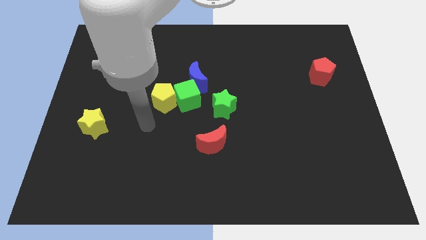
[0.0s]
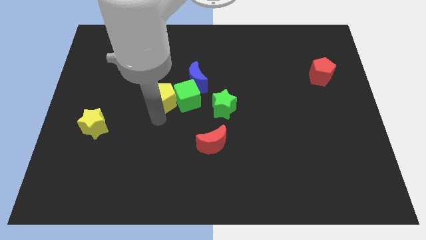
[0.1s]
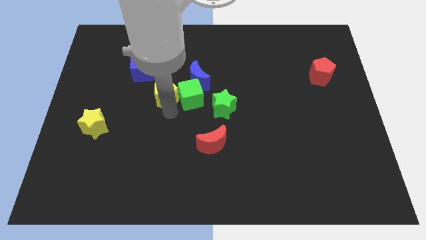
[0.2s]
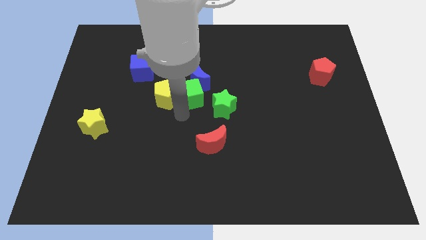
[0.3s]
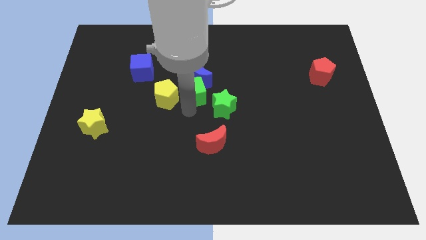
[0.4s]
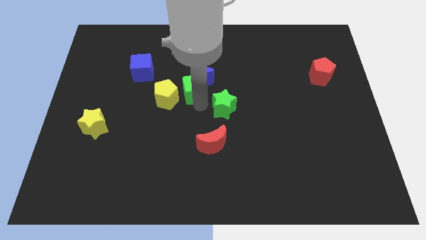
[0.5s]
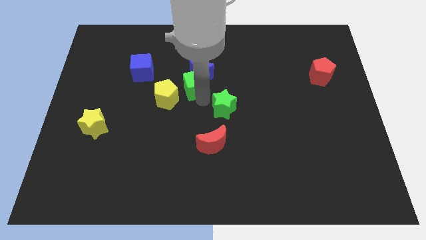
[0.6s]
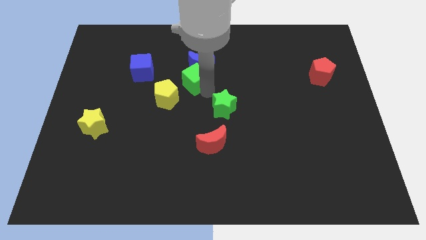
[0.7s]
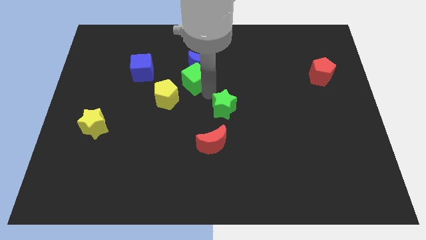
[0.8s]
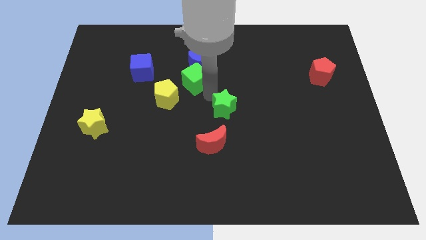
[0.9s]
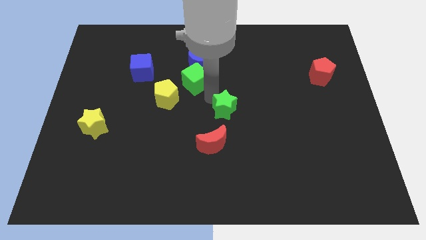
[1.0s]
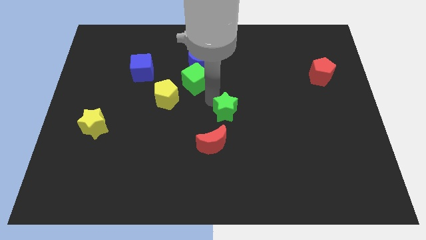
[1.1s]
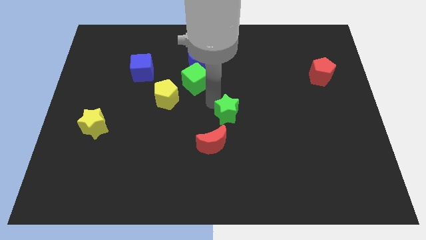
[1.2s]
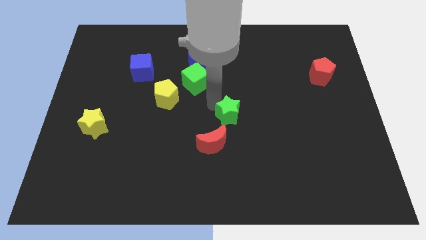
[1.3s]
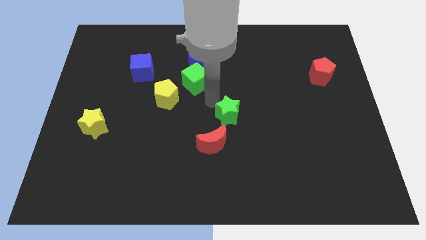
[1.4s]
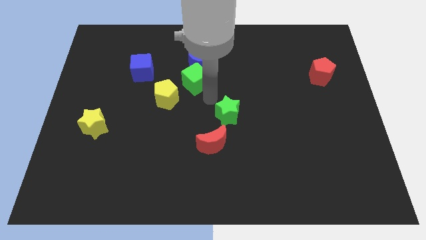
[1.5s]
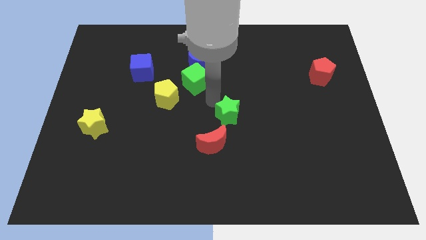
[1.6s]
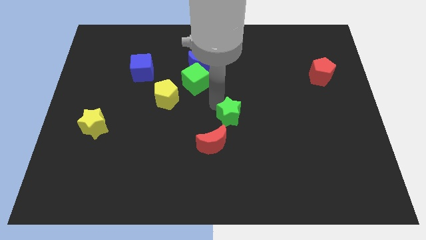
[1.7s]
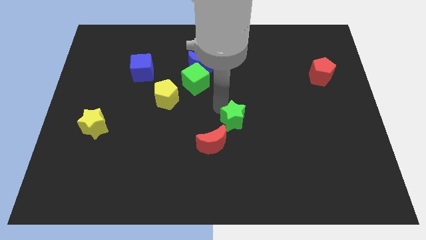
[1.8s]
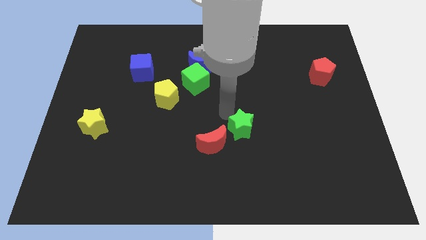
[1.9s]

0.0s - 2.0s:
slide the green star down and to the right slightly

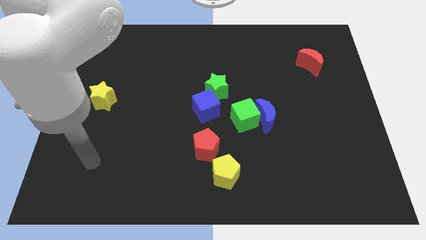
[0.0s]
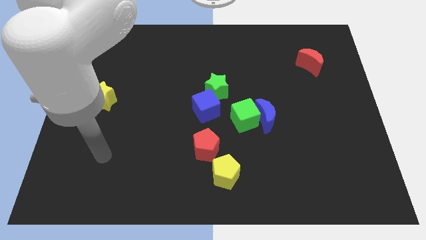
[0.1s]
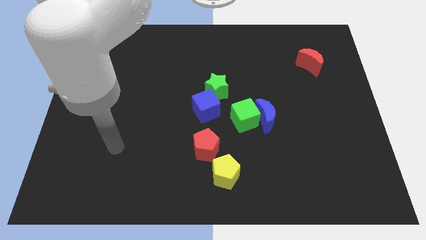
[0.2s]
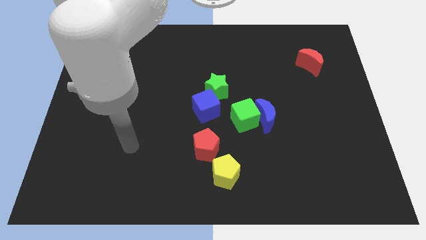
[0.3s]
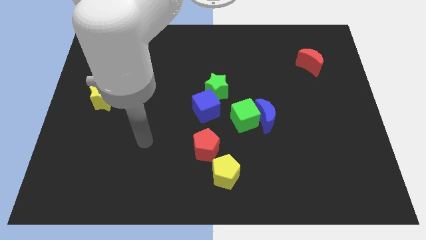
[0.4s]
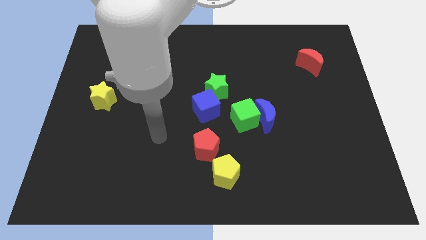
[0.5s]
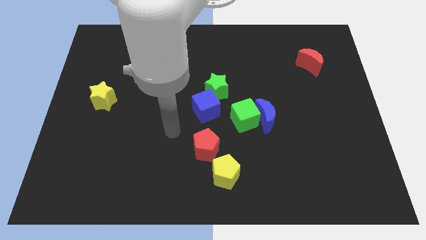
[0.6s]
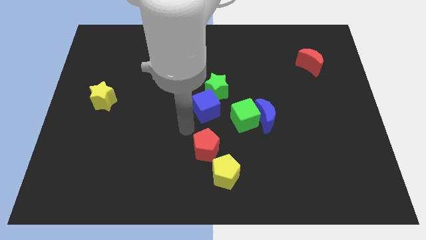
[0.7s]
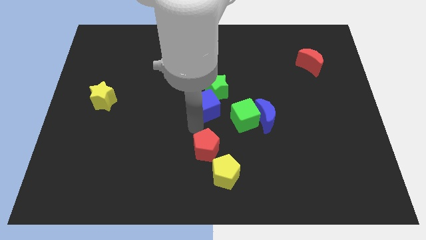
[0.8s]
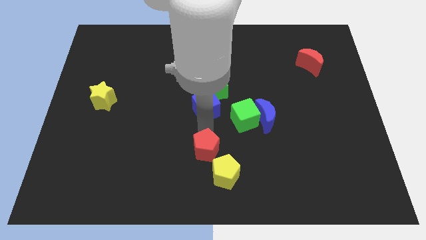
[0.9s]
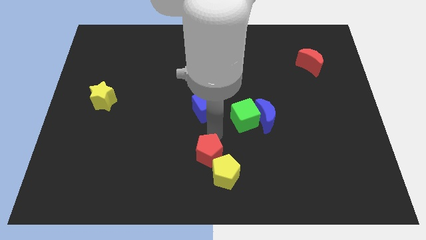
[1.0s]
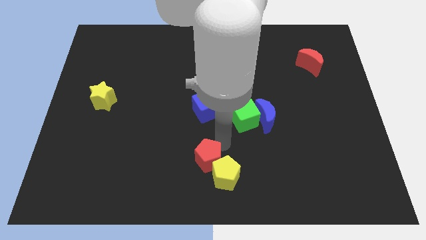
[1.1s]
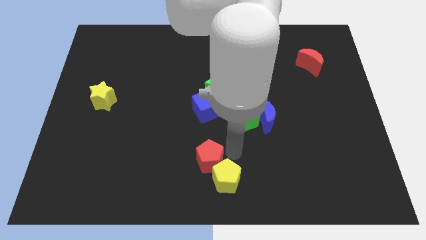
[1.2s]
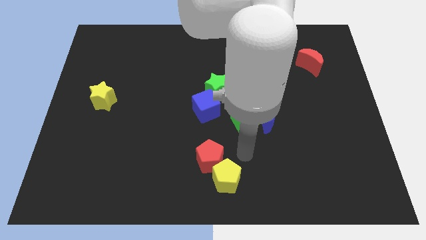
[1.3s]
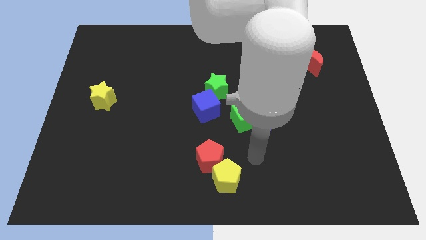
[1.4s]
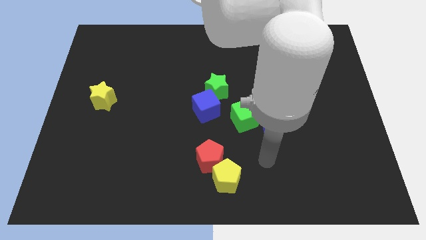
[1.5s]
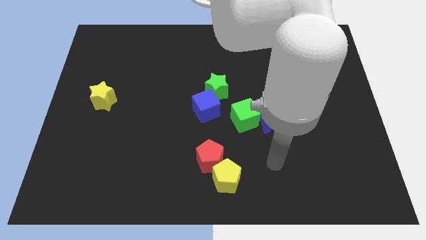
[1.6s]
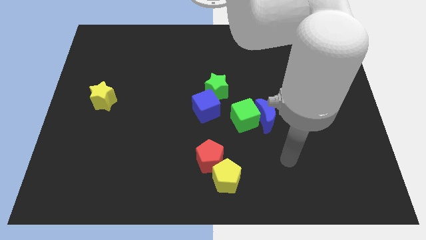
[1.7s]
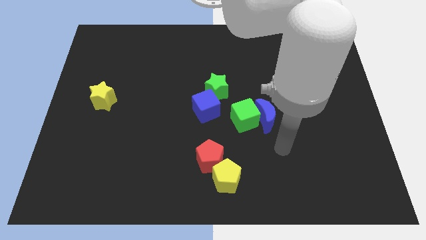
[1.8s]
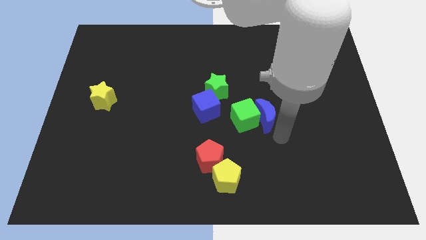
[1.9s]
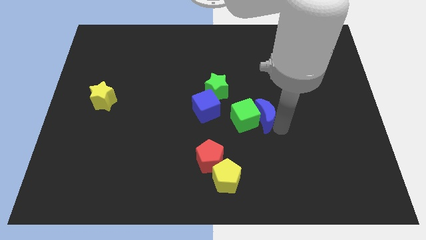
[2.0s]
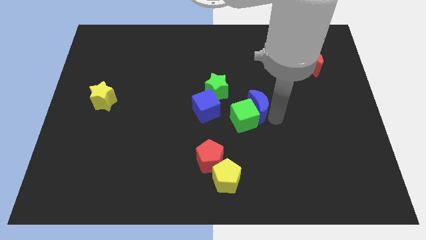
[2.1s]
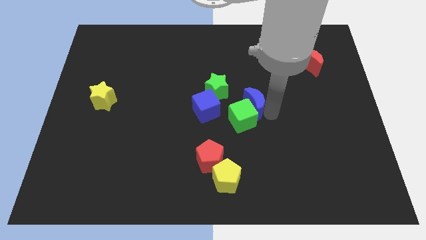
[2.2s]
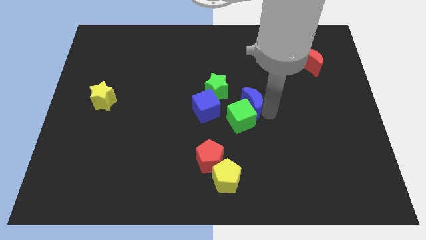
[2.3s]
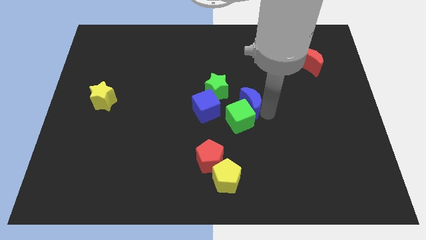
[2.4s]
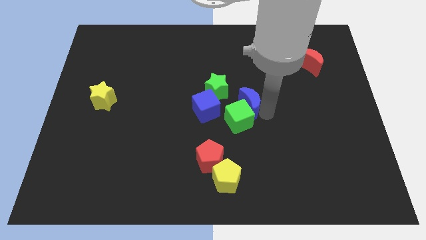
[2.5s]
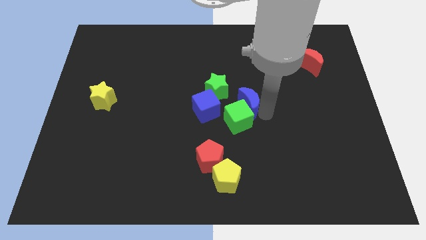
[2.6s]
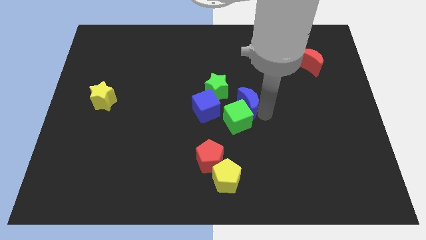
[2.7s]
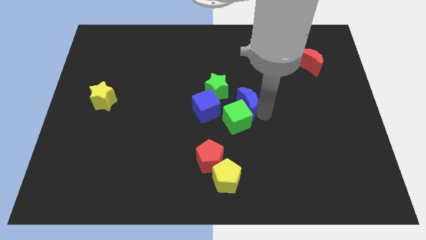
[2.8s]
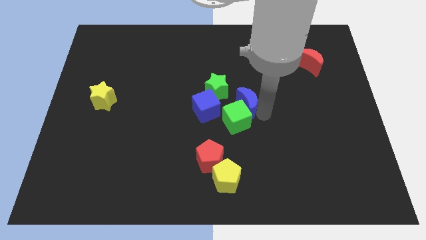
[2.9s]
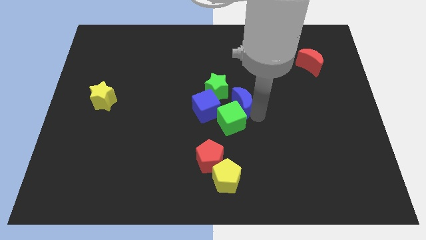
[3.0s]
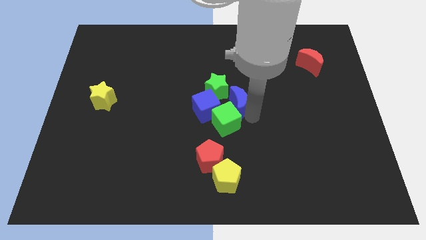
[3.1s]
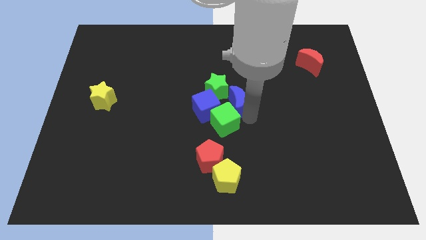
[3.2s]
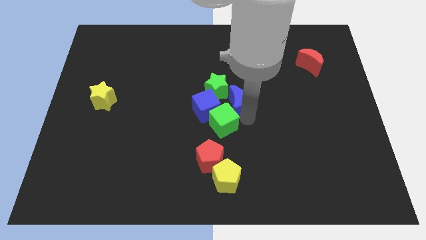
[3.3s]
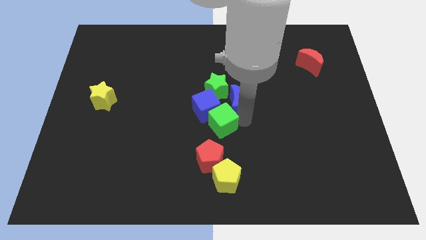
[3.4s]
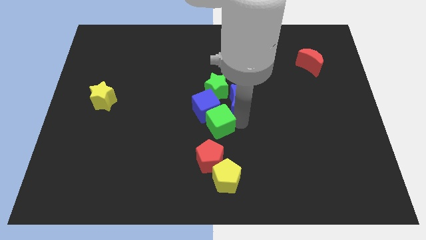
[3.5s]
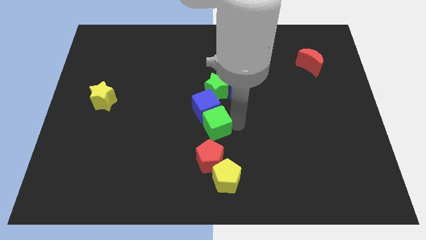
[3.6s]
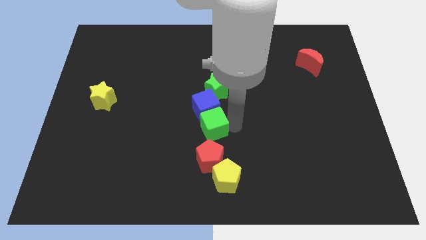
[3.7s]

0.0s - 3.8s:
push the green cube a bit left

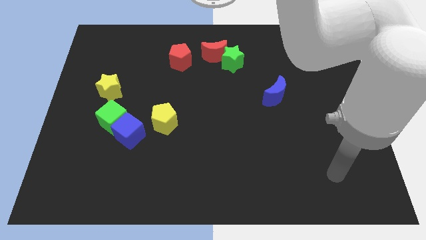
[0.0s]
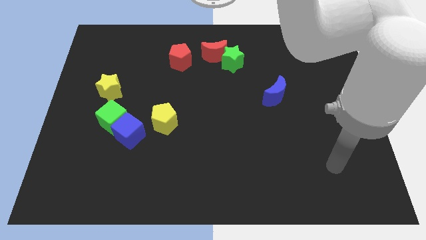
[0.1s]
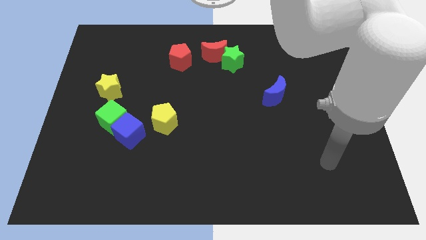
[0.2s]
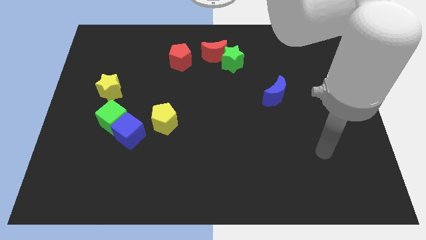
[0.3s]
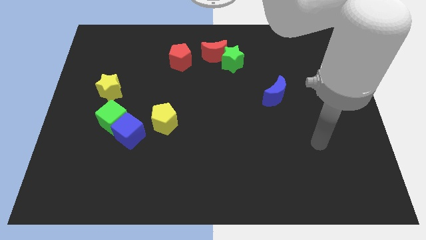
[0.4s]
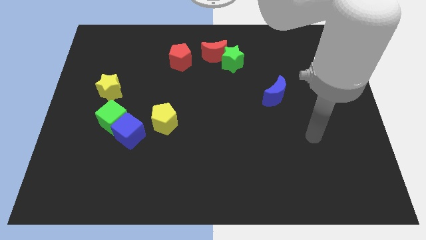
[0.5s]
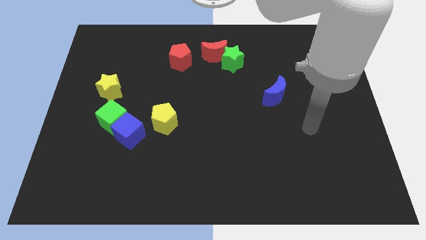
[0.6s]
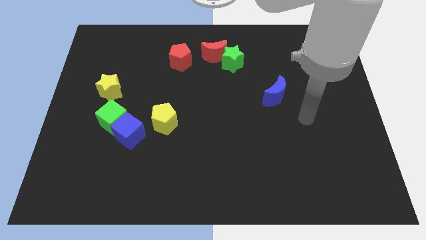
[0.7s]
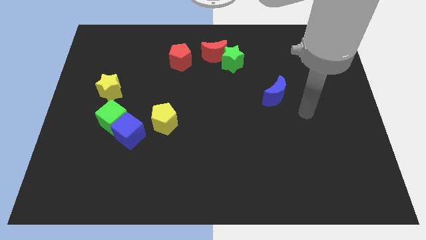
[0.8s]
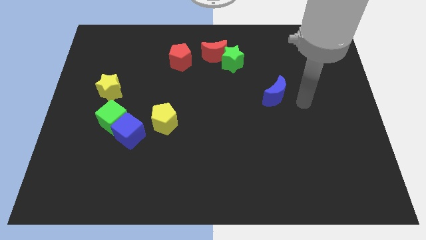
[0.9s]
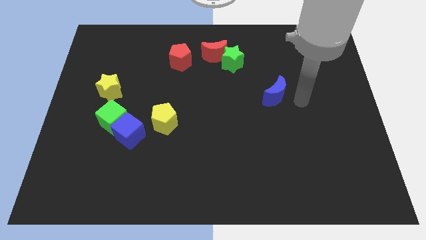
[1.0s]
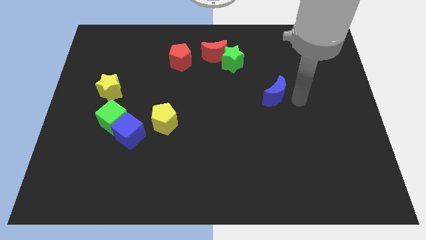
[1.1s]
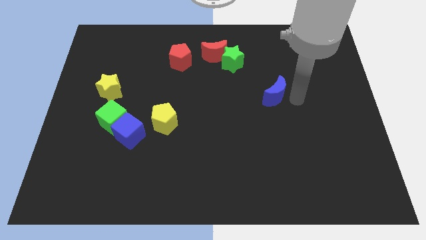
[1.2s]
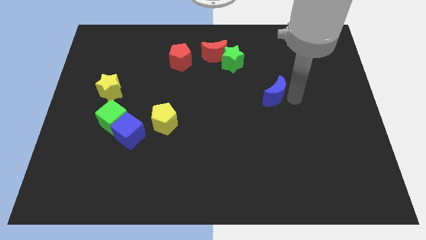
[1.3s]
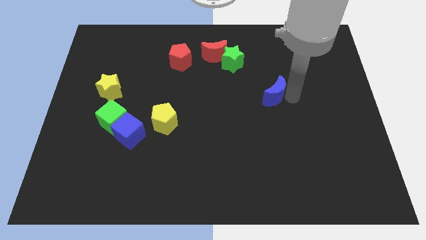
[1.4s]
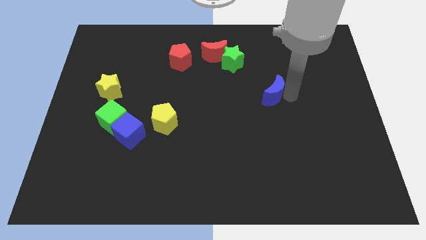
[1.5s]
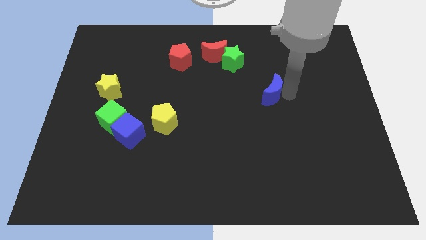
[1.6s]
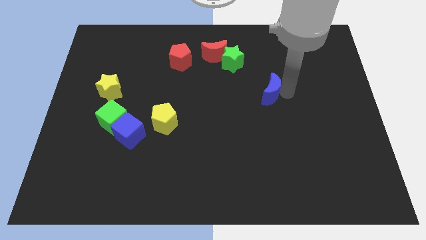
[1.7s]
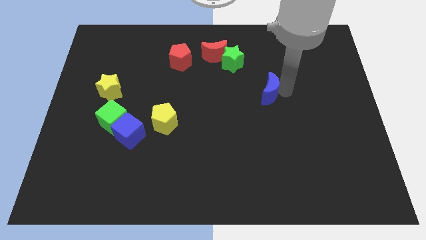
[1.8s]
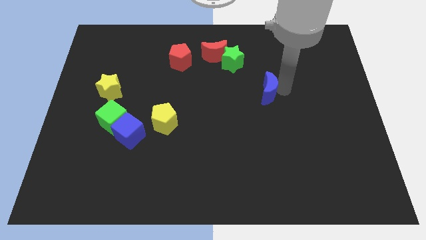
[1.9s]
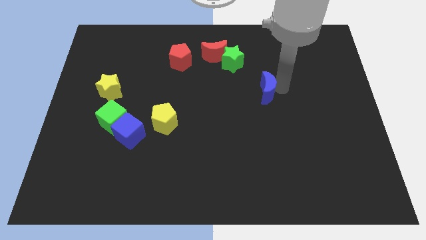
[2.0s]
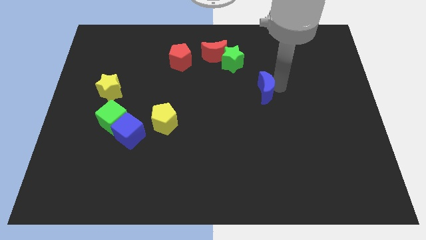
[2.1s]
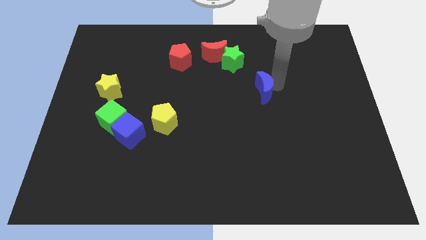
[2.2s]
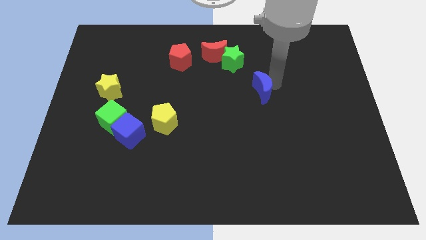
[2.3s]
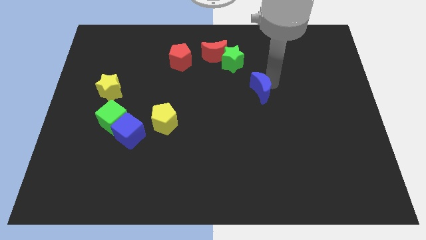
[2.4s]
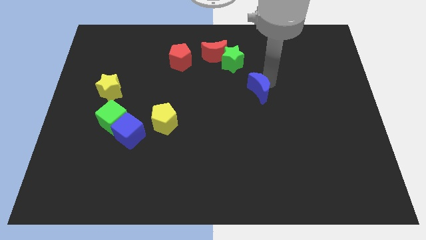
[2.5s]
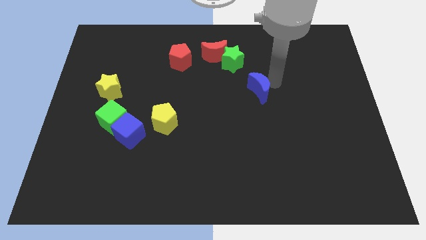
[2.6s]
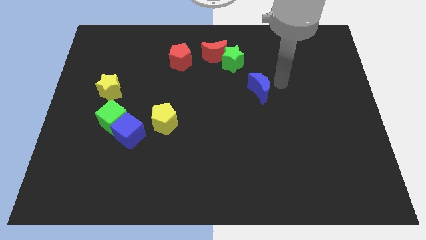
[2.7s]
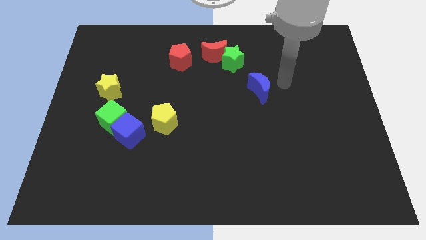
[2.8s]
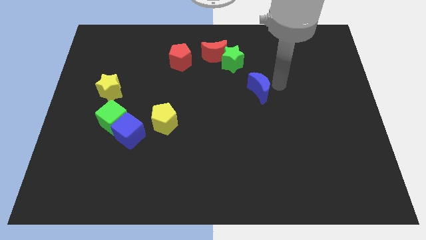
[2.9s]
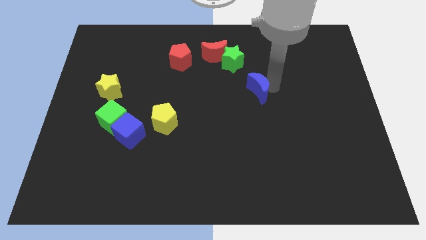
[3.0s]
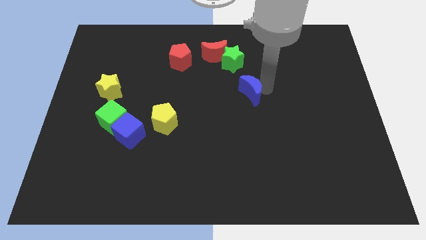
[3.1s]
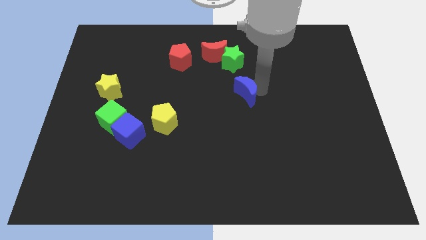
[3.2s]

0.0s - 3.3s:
move the blue moon a bit left
